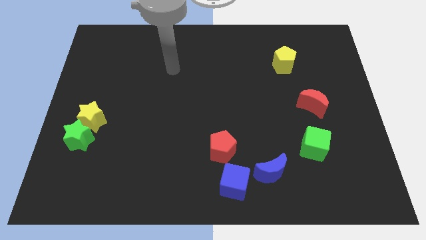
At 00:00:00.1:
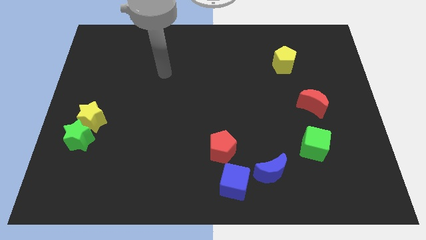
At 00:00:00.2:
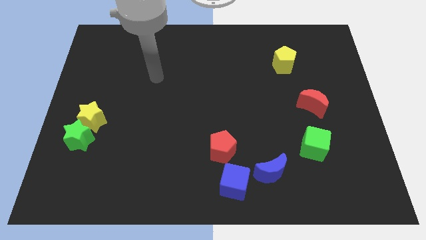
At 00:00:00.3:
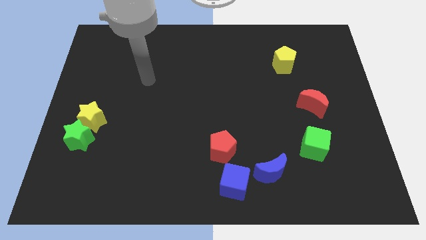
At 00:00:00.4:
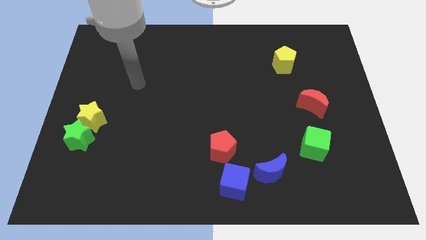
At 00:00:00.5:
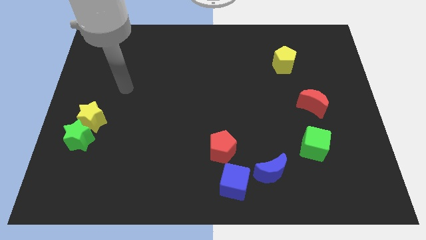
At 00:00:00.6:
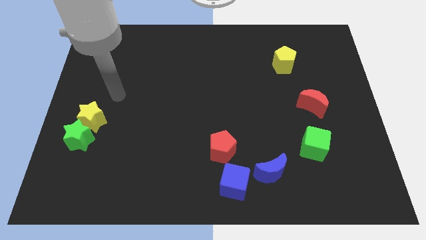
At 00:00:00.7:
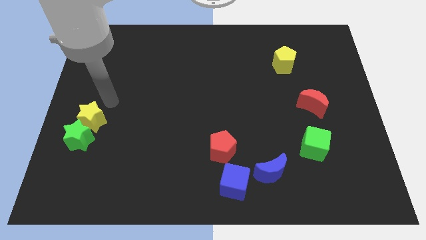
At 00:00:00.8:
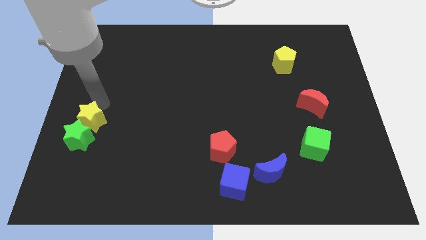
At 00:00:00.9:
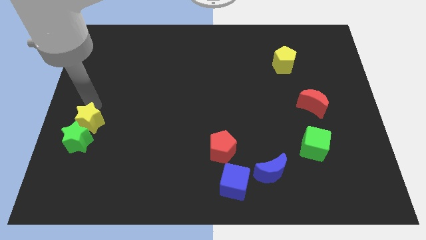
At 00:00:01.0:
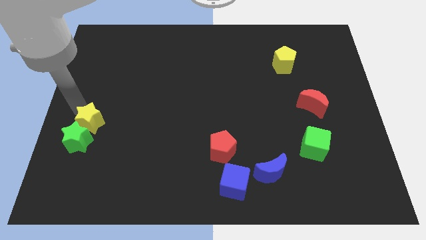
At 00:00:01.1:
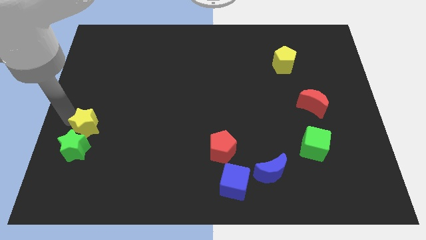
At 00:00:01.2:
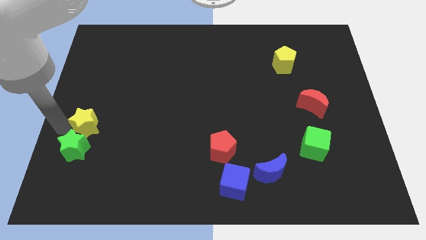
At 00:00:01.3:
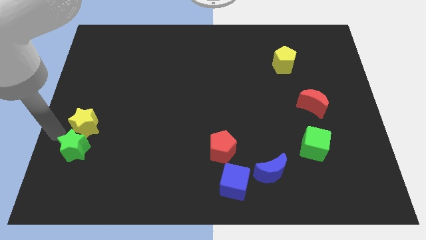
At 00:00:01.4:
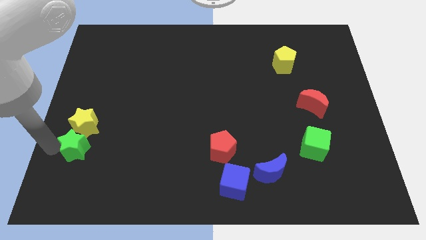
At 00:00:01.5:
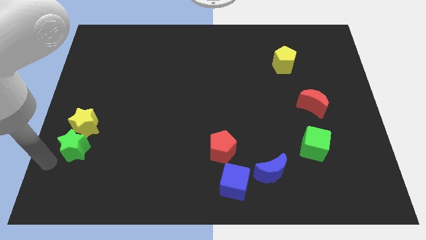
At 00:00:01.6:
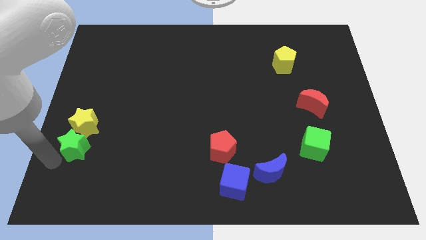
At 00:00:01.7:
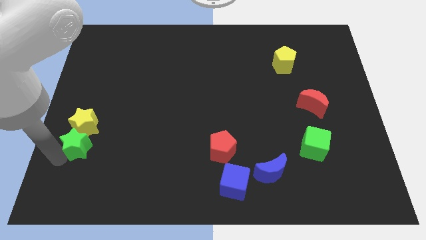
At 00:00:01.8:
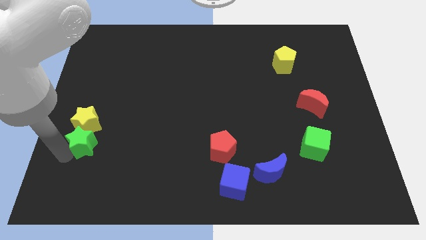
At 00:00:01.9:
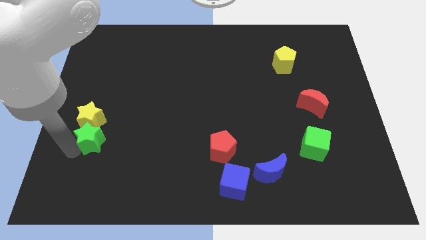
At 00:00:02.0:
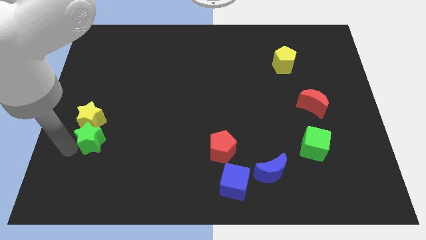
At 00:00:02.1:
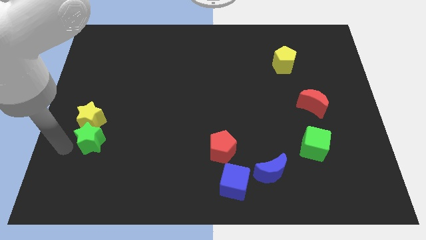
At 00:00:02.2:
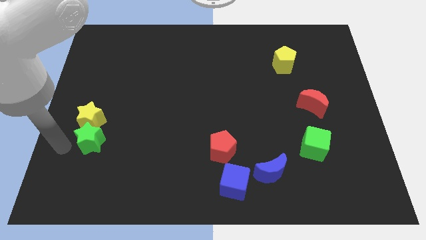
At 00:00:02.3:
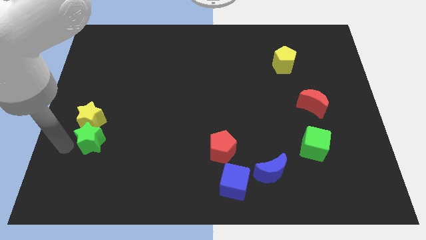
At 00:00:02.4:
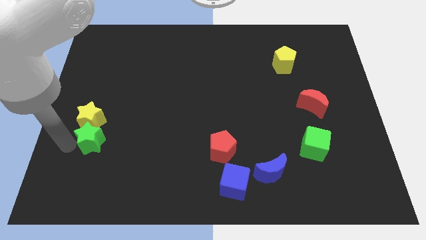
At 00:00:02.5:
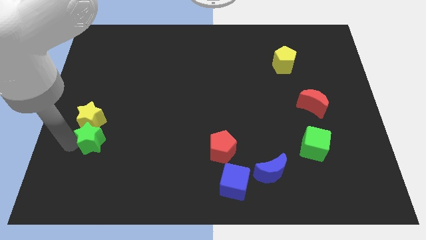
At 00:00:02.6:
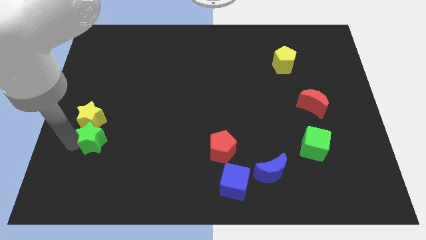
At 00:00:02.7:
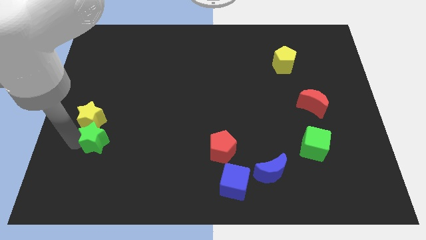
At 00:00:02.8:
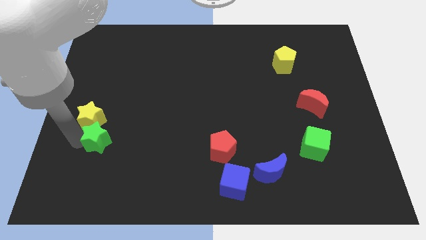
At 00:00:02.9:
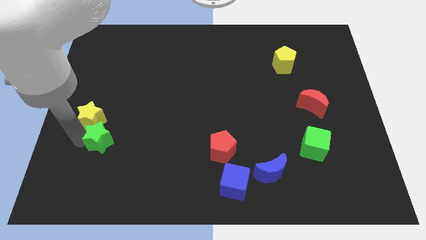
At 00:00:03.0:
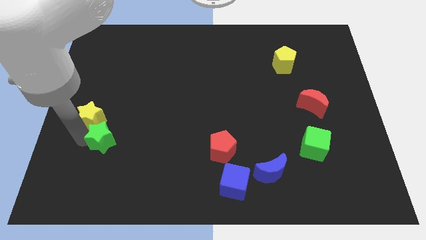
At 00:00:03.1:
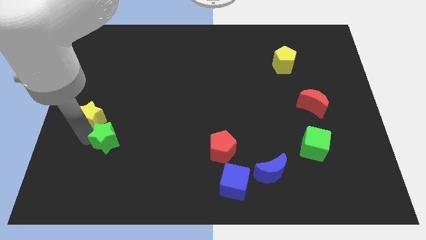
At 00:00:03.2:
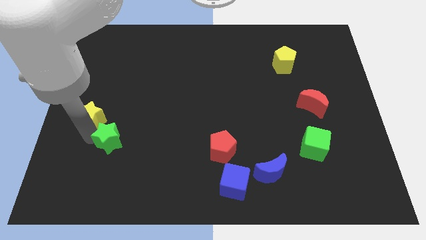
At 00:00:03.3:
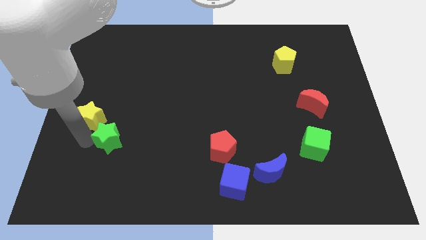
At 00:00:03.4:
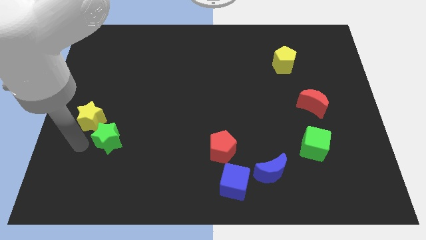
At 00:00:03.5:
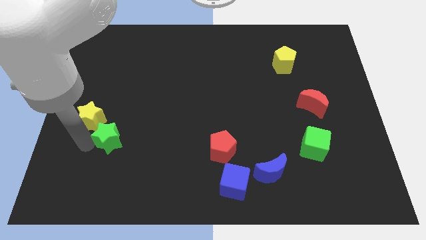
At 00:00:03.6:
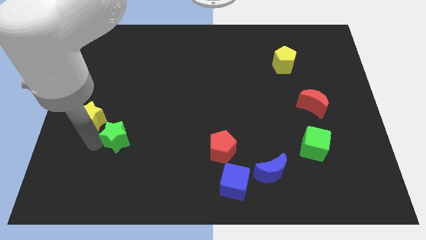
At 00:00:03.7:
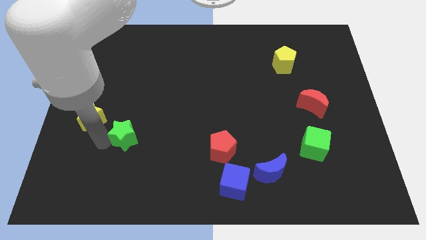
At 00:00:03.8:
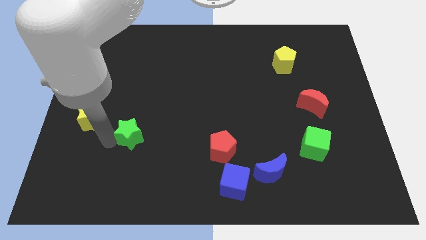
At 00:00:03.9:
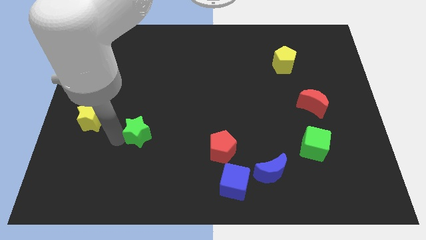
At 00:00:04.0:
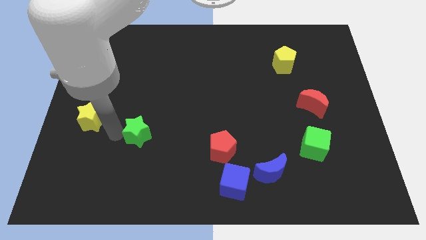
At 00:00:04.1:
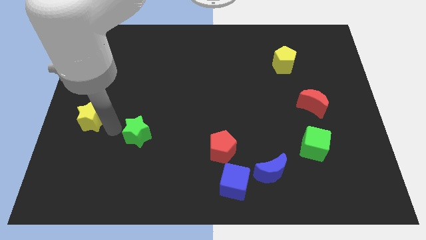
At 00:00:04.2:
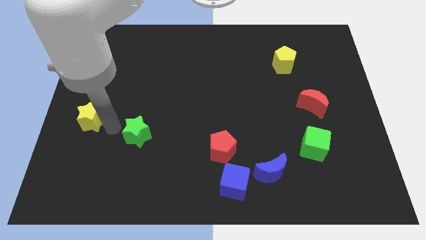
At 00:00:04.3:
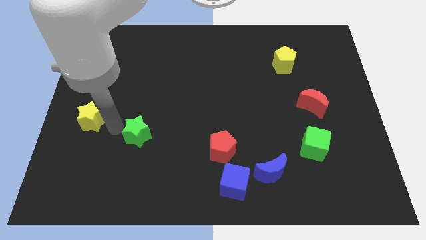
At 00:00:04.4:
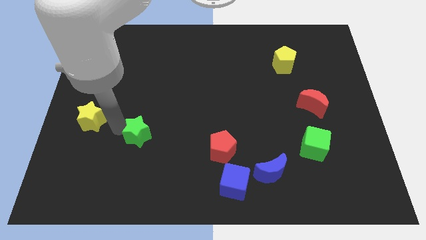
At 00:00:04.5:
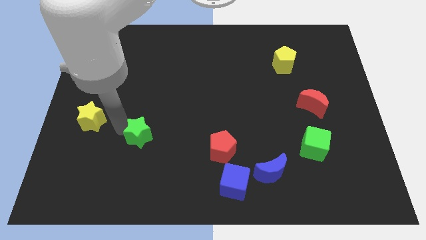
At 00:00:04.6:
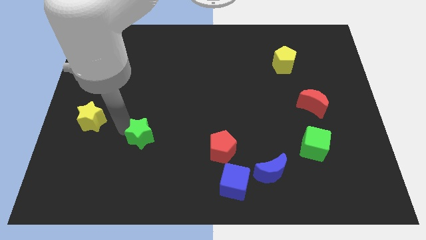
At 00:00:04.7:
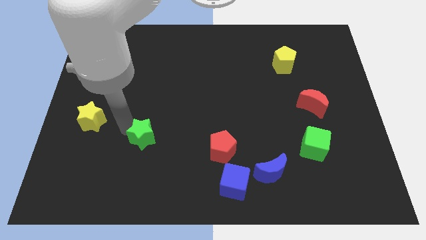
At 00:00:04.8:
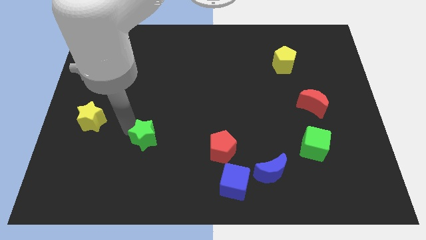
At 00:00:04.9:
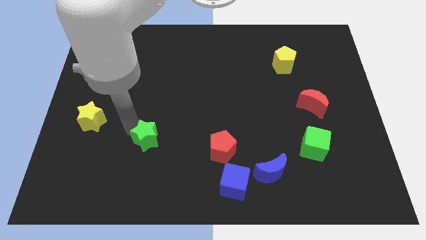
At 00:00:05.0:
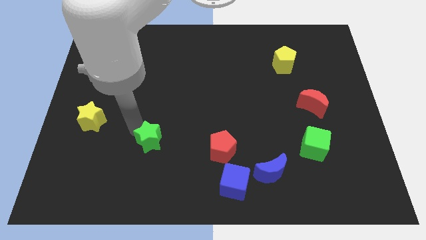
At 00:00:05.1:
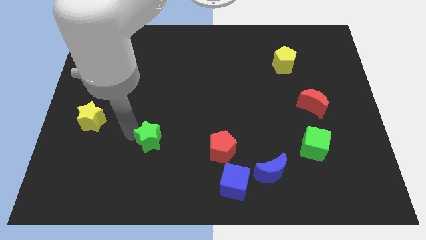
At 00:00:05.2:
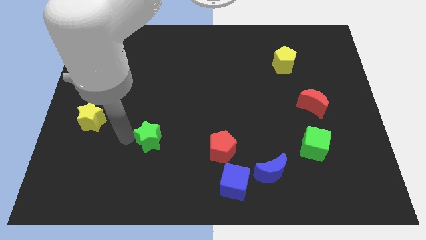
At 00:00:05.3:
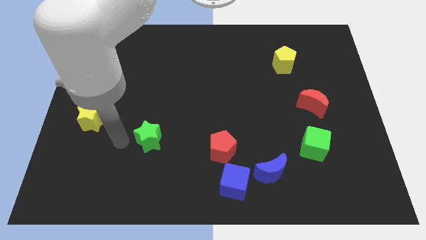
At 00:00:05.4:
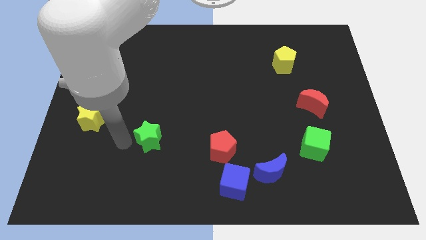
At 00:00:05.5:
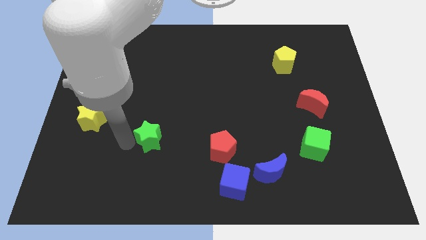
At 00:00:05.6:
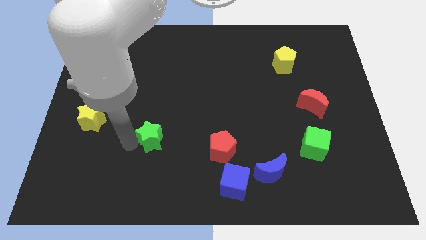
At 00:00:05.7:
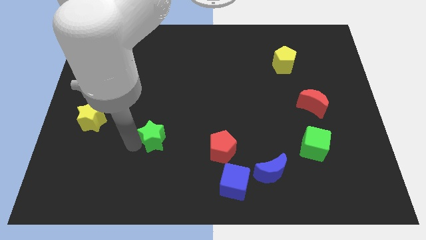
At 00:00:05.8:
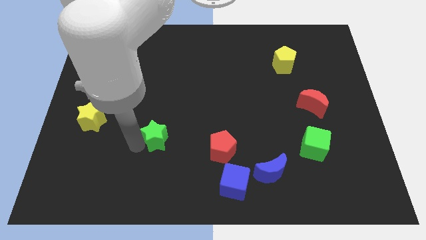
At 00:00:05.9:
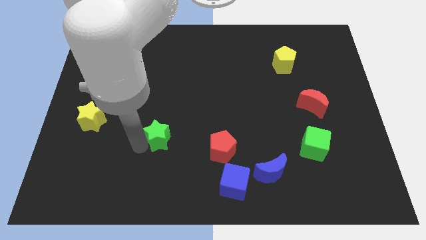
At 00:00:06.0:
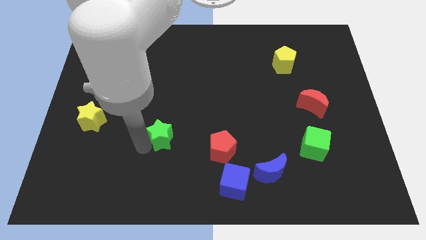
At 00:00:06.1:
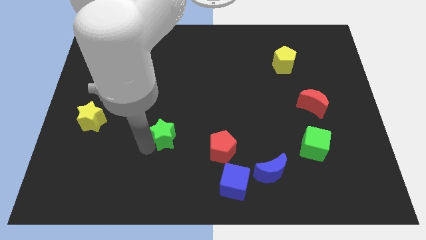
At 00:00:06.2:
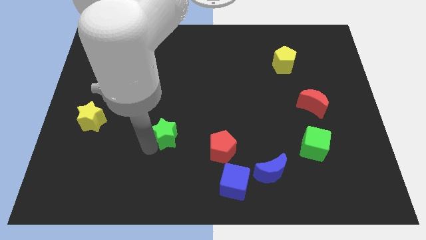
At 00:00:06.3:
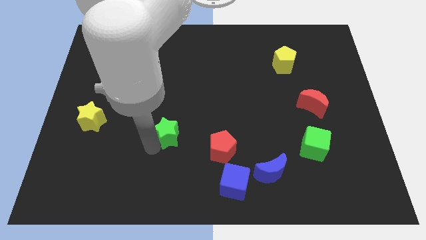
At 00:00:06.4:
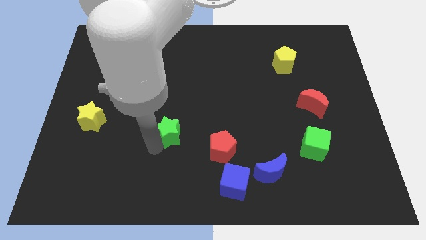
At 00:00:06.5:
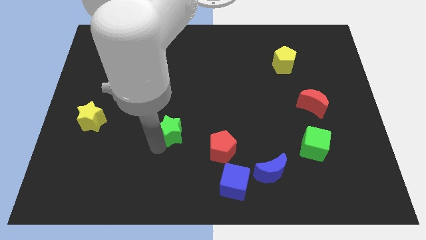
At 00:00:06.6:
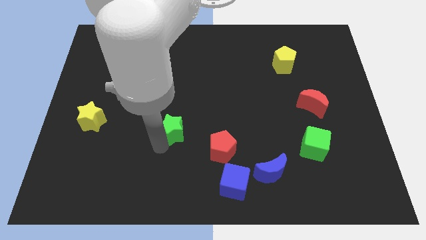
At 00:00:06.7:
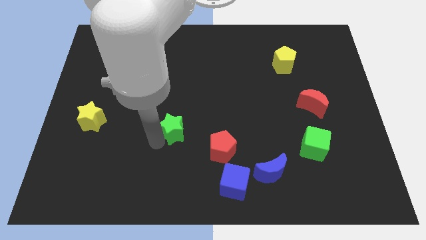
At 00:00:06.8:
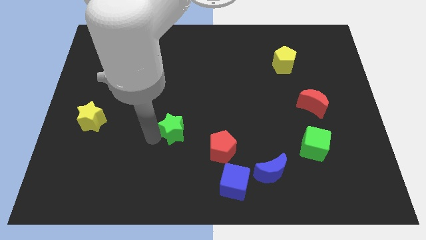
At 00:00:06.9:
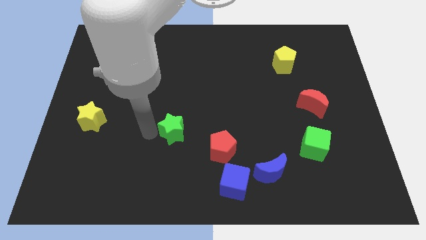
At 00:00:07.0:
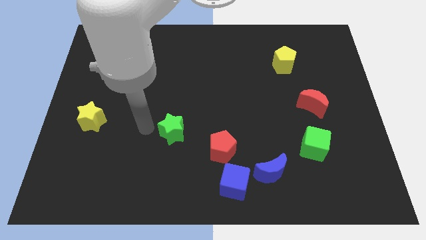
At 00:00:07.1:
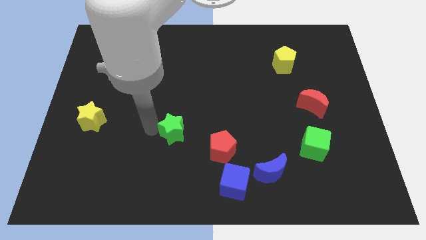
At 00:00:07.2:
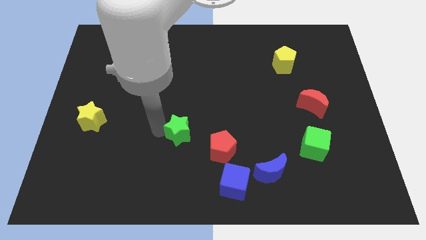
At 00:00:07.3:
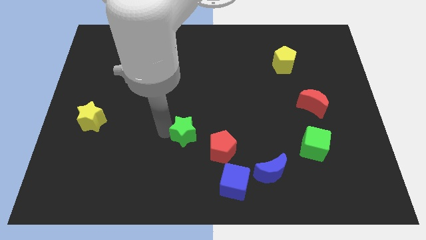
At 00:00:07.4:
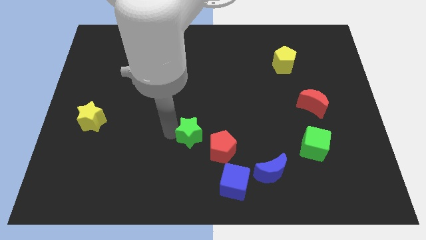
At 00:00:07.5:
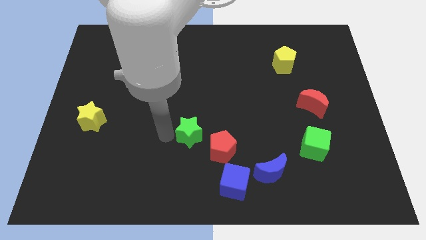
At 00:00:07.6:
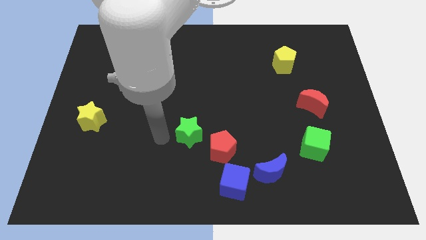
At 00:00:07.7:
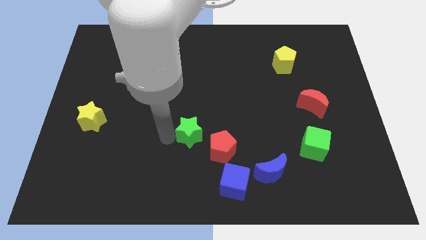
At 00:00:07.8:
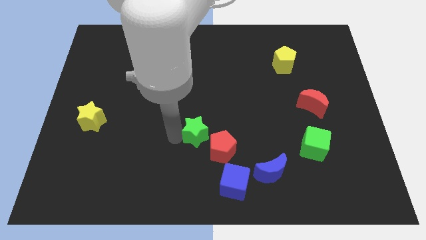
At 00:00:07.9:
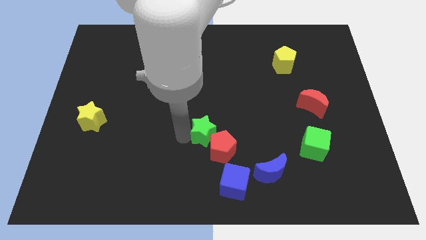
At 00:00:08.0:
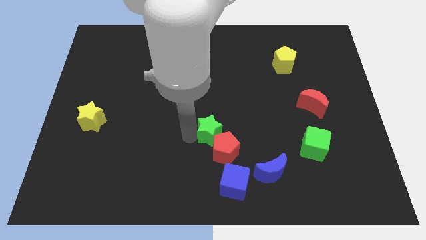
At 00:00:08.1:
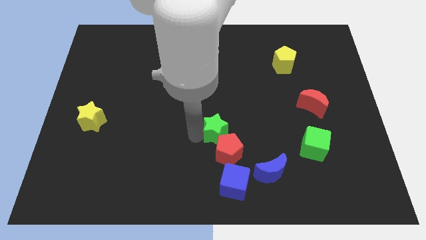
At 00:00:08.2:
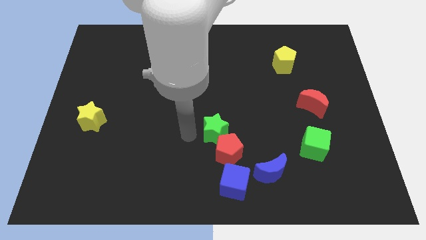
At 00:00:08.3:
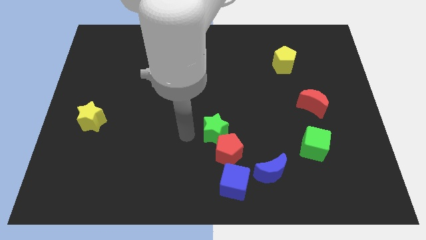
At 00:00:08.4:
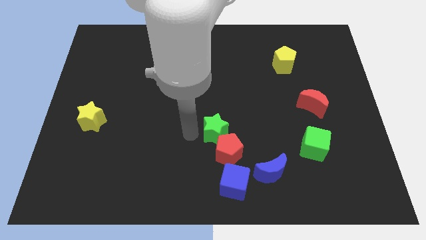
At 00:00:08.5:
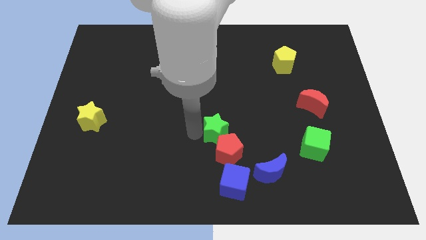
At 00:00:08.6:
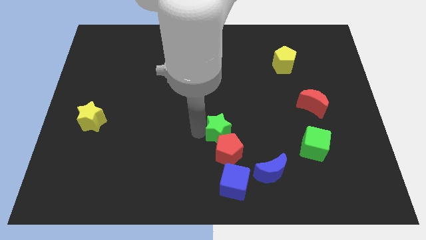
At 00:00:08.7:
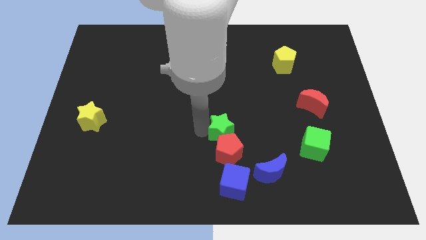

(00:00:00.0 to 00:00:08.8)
slide the green star to the top right of the red pentagon
